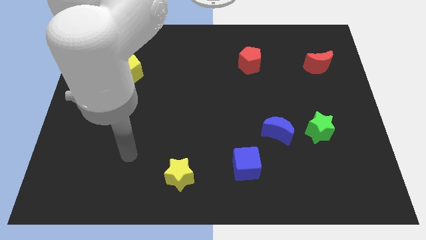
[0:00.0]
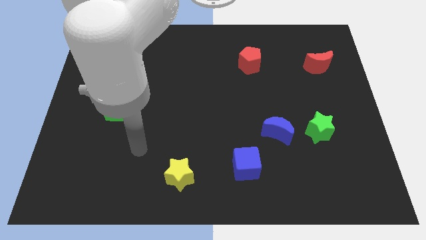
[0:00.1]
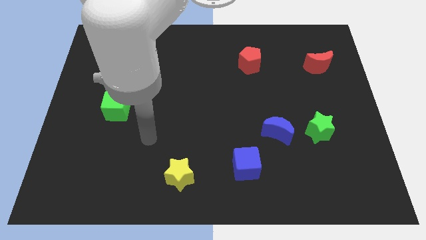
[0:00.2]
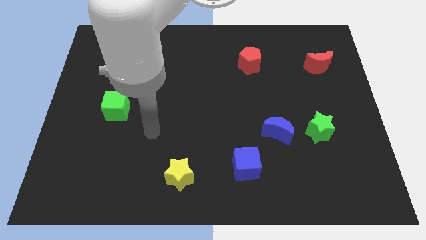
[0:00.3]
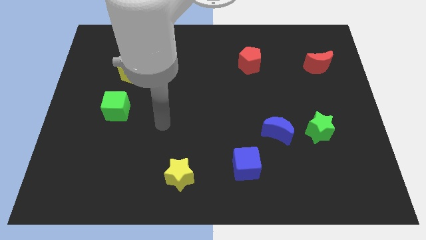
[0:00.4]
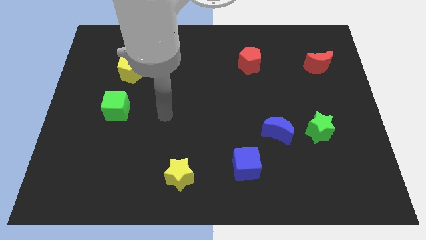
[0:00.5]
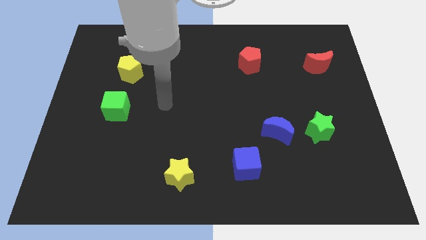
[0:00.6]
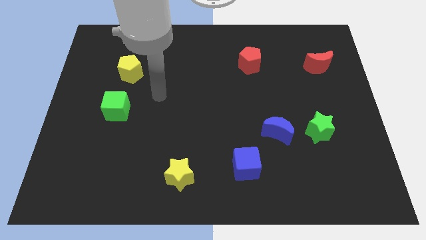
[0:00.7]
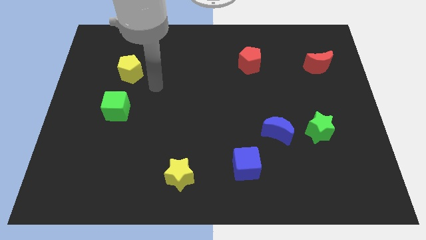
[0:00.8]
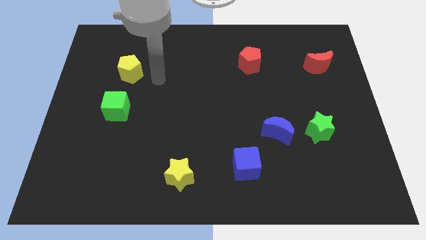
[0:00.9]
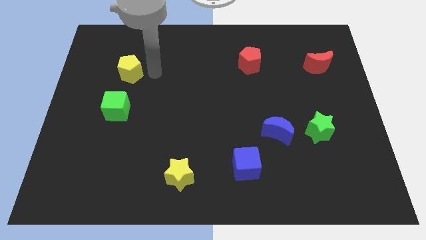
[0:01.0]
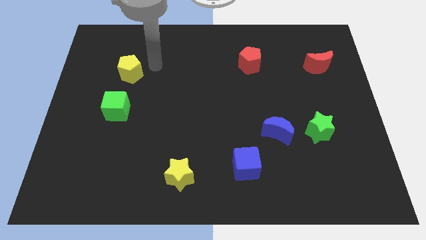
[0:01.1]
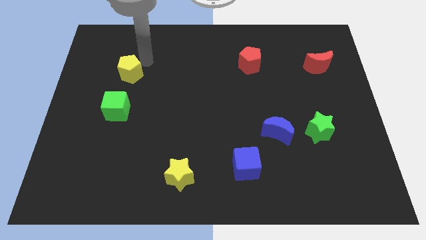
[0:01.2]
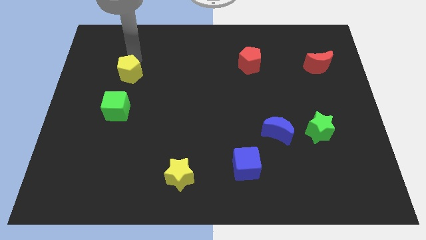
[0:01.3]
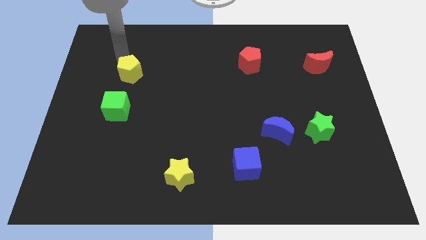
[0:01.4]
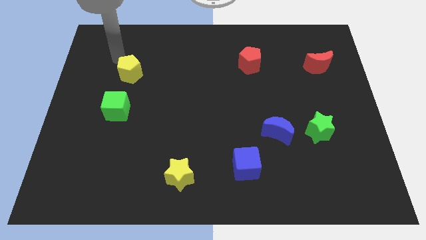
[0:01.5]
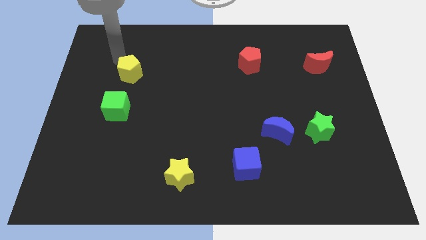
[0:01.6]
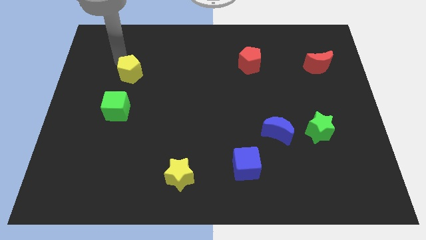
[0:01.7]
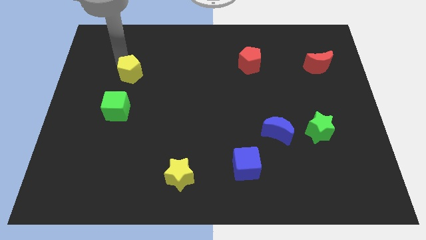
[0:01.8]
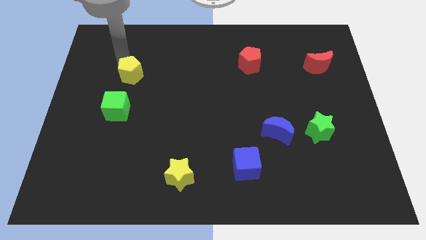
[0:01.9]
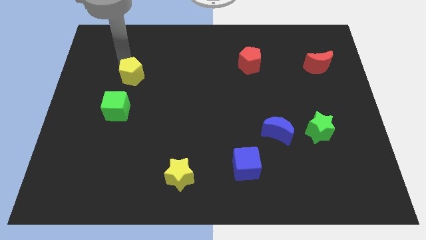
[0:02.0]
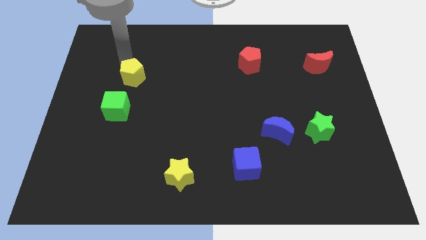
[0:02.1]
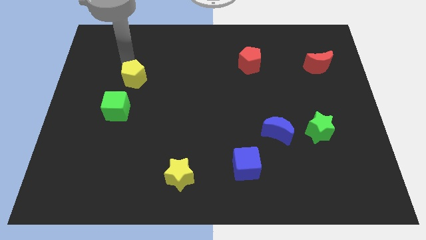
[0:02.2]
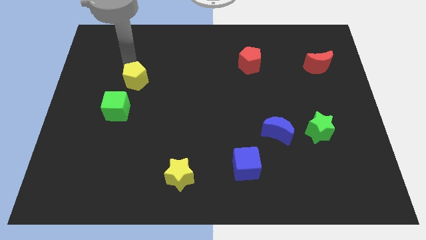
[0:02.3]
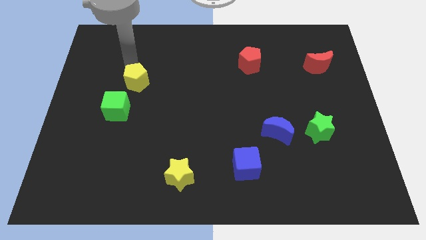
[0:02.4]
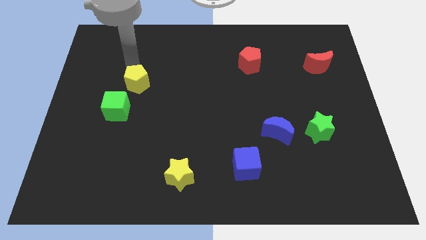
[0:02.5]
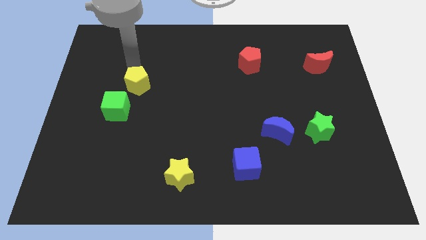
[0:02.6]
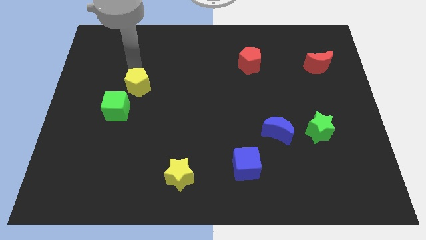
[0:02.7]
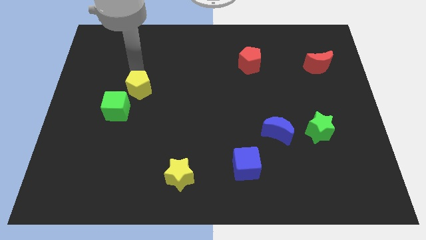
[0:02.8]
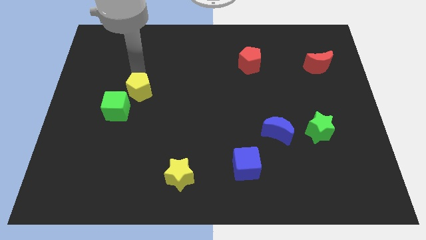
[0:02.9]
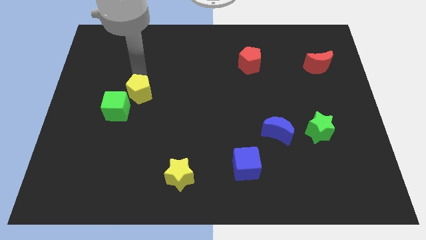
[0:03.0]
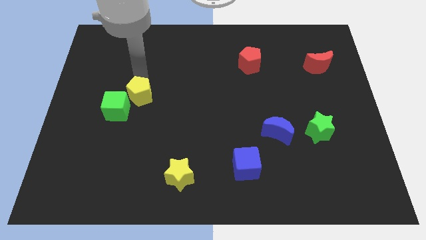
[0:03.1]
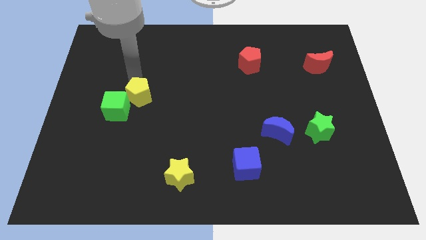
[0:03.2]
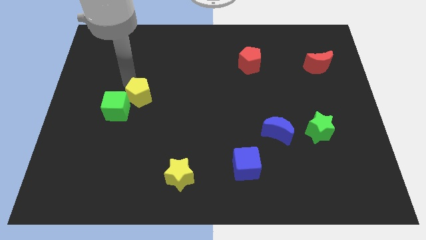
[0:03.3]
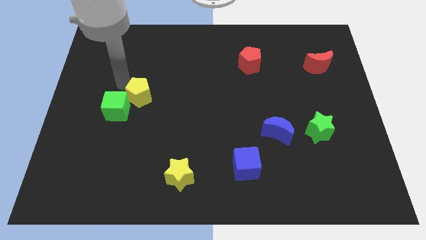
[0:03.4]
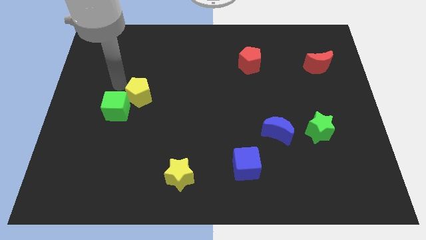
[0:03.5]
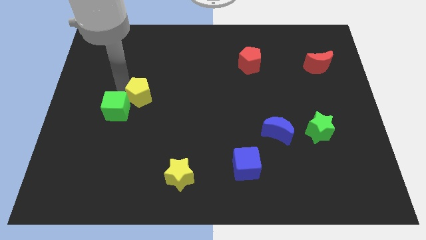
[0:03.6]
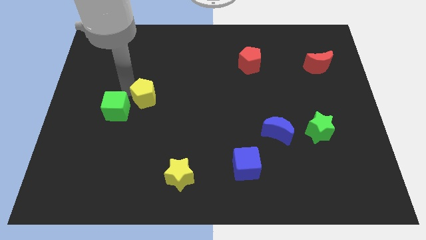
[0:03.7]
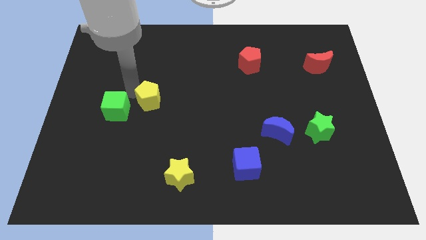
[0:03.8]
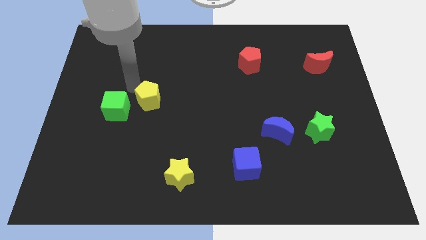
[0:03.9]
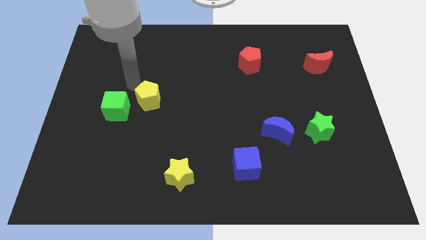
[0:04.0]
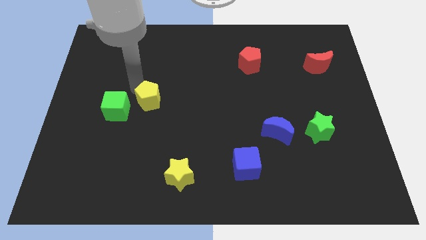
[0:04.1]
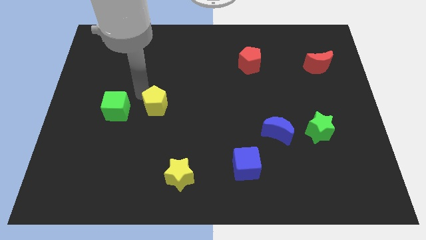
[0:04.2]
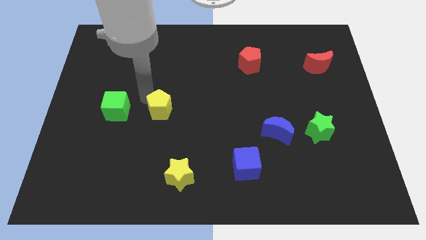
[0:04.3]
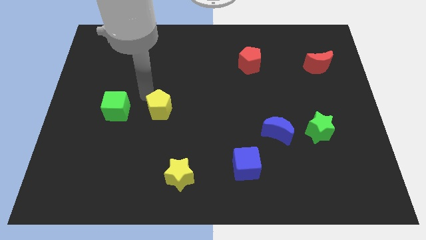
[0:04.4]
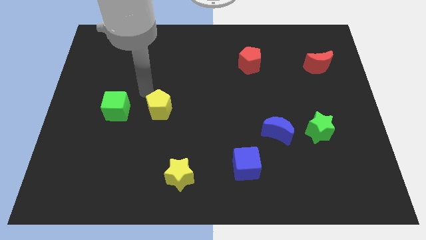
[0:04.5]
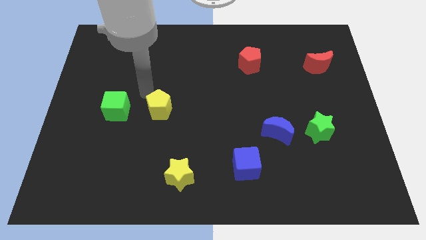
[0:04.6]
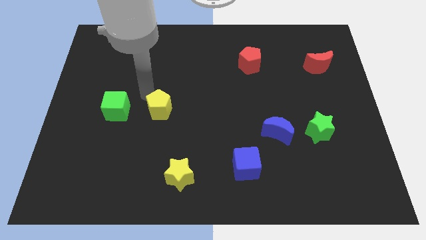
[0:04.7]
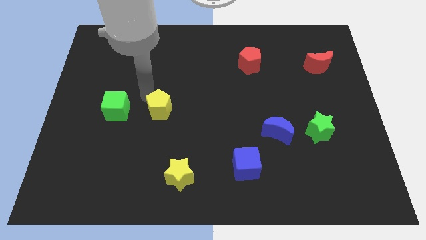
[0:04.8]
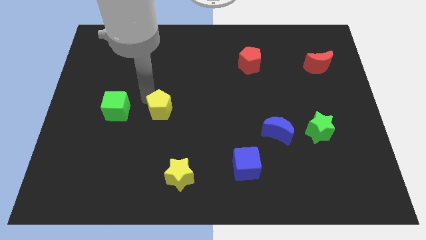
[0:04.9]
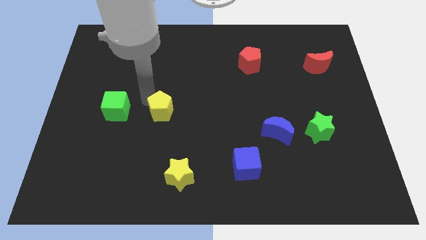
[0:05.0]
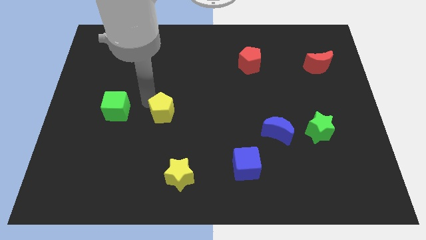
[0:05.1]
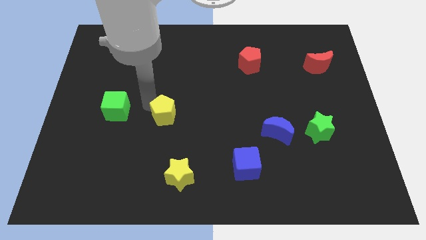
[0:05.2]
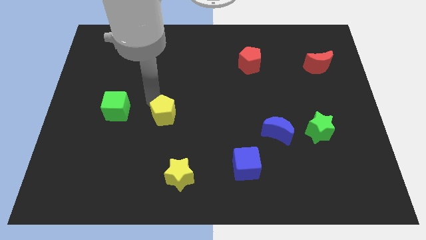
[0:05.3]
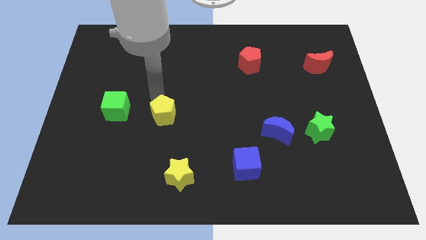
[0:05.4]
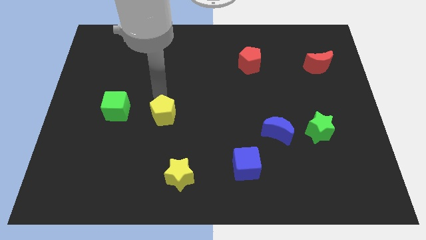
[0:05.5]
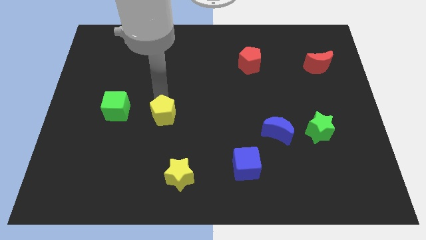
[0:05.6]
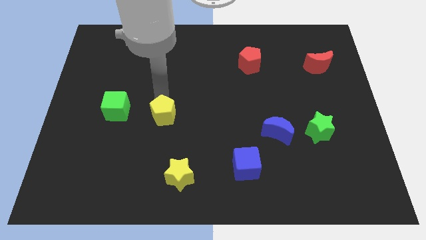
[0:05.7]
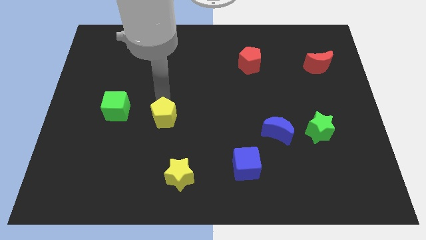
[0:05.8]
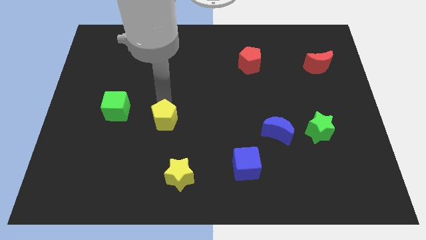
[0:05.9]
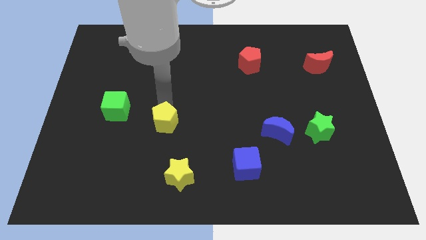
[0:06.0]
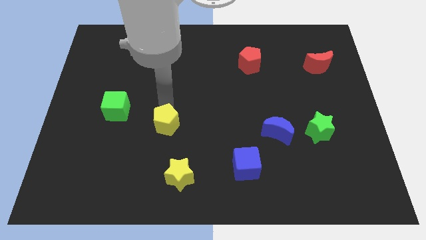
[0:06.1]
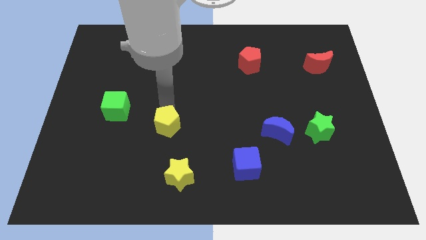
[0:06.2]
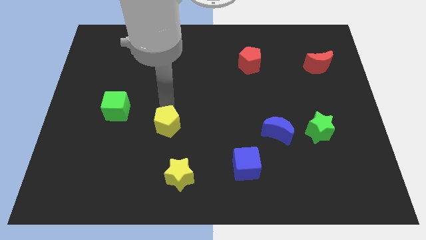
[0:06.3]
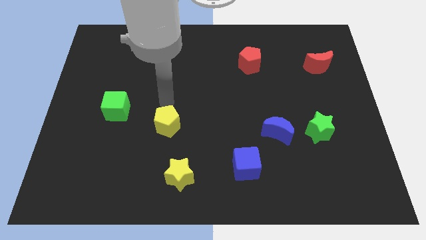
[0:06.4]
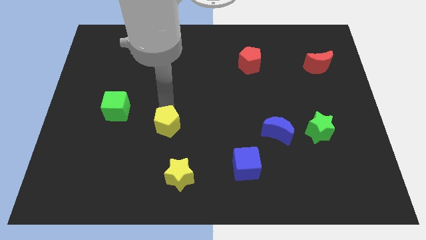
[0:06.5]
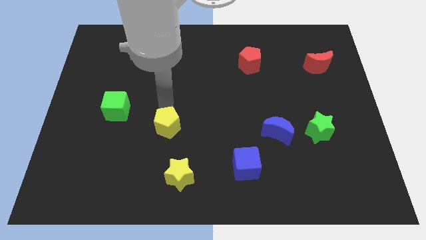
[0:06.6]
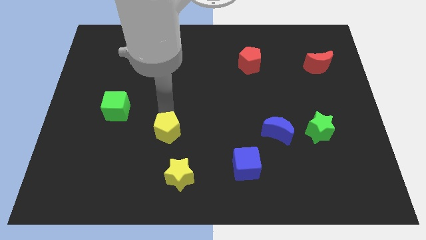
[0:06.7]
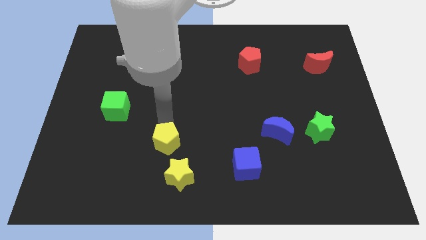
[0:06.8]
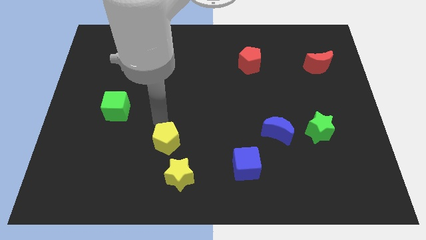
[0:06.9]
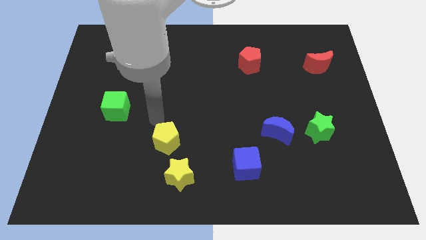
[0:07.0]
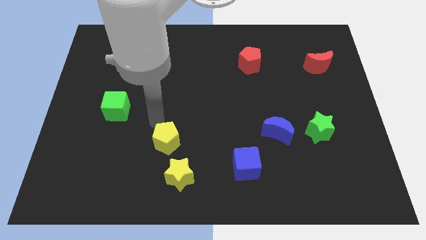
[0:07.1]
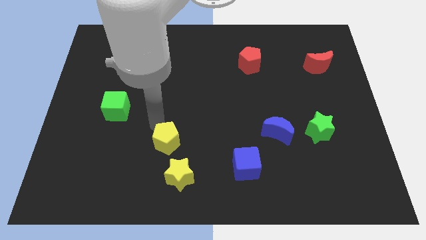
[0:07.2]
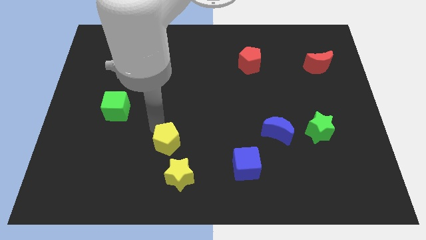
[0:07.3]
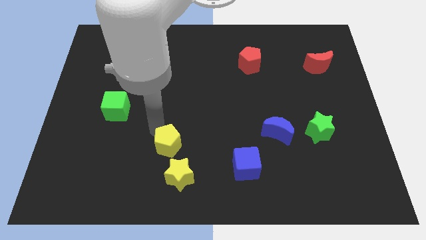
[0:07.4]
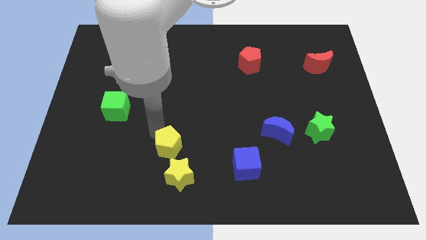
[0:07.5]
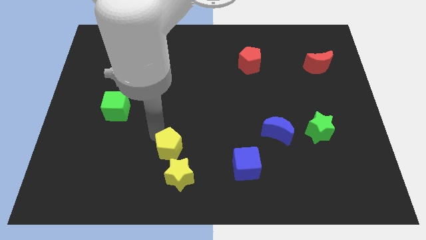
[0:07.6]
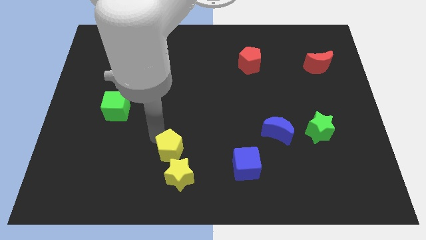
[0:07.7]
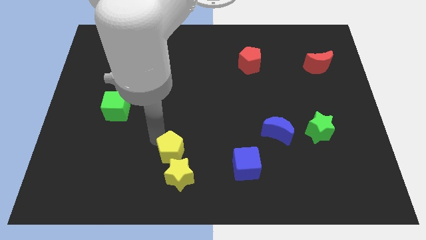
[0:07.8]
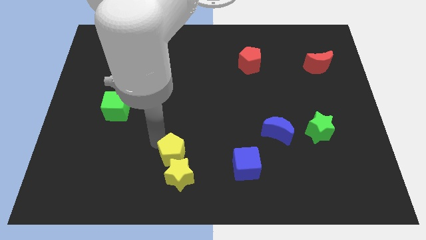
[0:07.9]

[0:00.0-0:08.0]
put the yellow pentagon towards the yellow star
